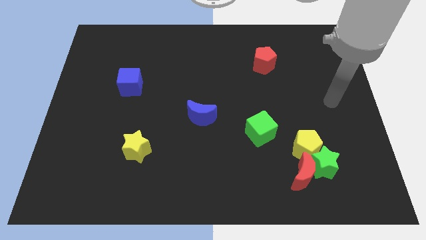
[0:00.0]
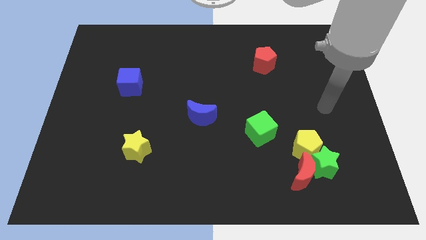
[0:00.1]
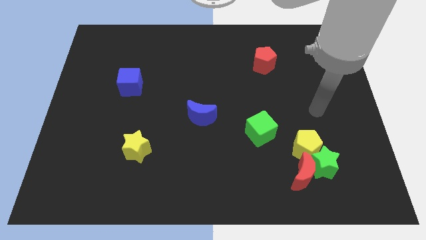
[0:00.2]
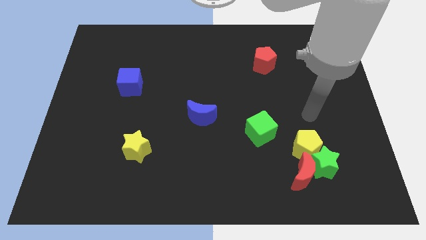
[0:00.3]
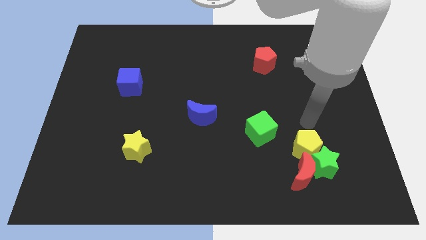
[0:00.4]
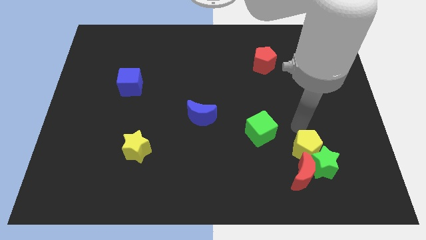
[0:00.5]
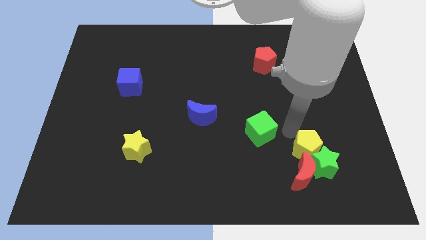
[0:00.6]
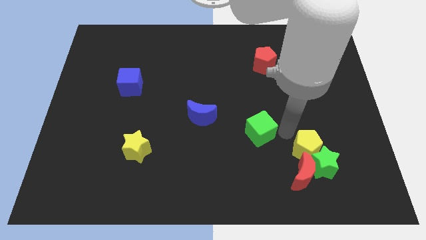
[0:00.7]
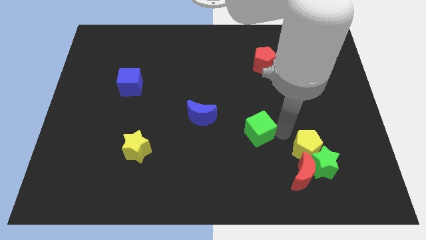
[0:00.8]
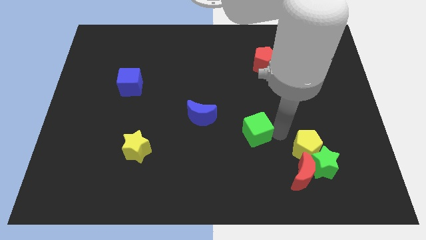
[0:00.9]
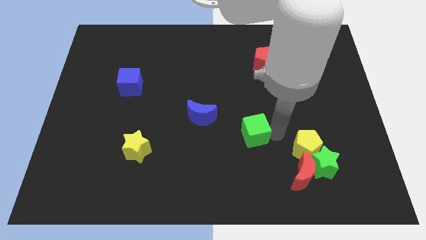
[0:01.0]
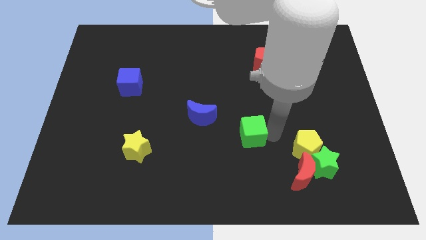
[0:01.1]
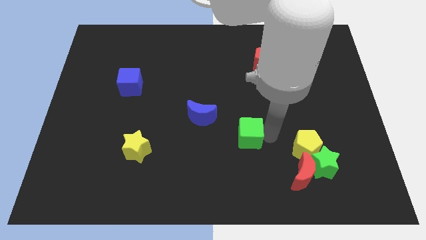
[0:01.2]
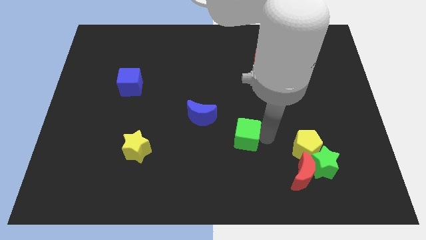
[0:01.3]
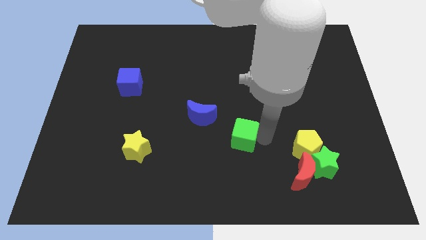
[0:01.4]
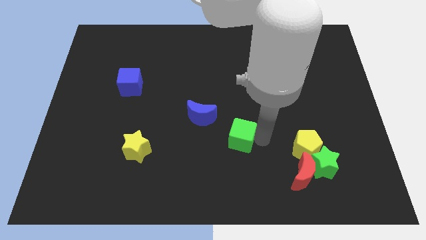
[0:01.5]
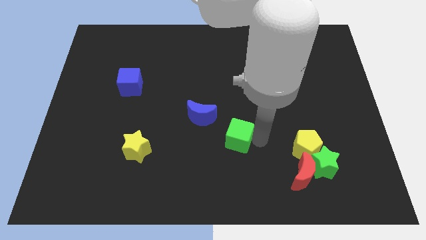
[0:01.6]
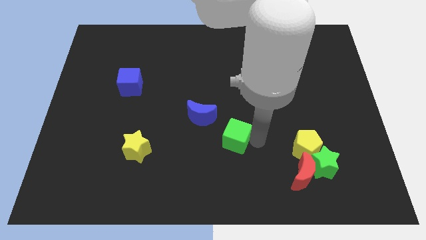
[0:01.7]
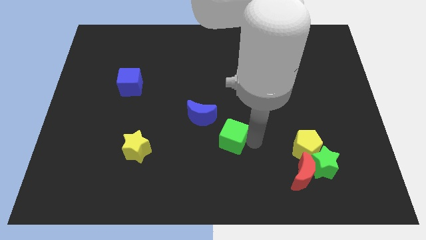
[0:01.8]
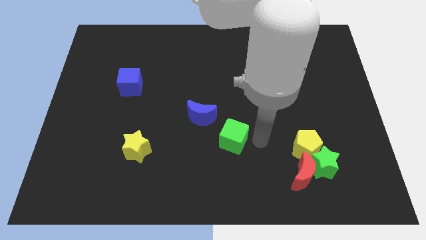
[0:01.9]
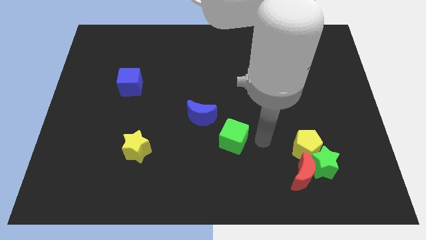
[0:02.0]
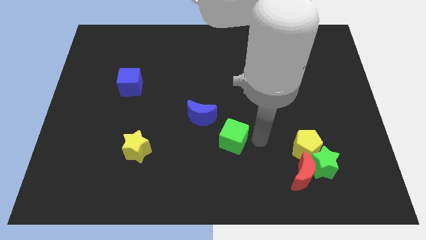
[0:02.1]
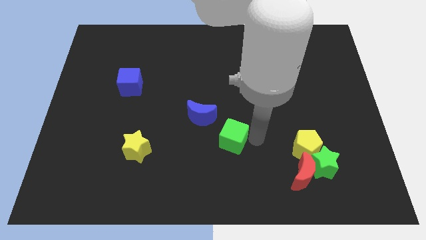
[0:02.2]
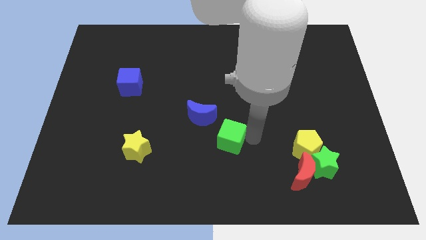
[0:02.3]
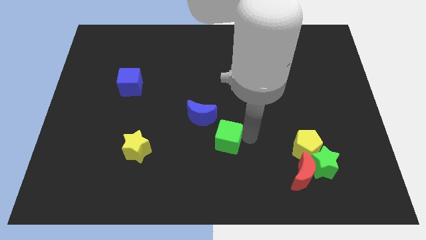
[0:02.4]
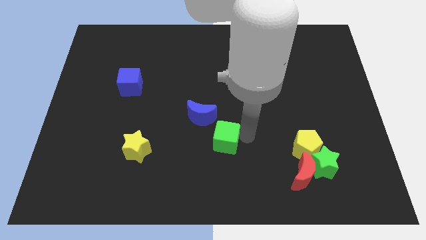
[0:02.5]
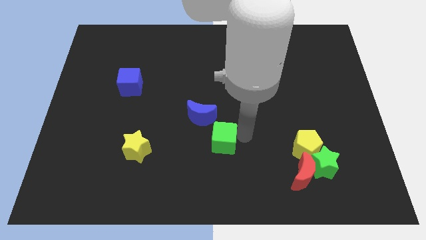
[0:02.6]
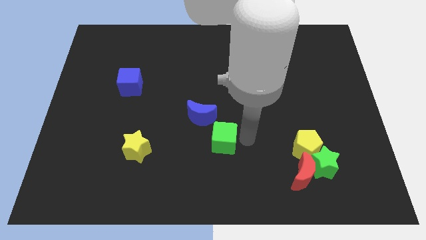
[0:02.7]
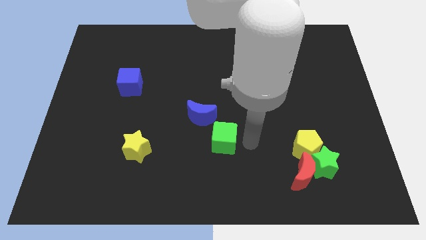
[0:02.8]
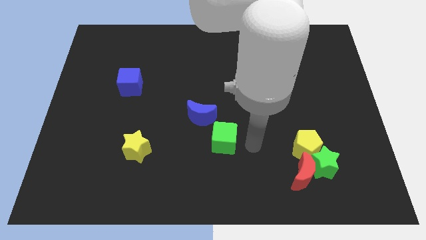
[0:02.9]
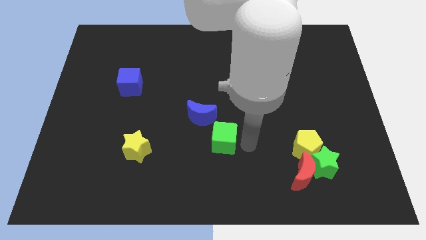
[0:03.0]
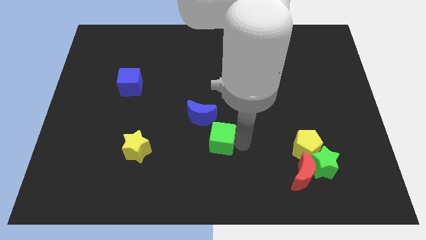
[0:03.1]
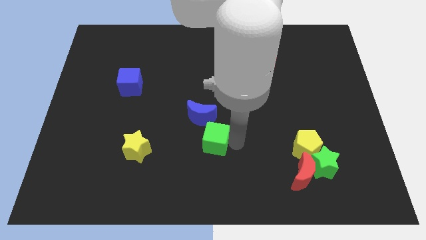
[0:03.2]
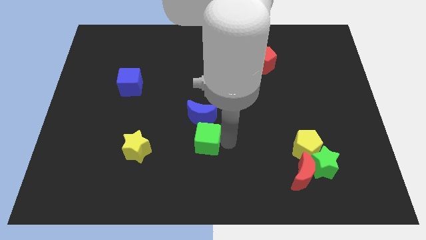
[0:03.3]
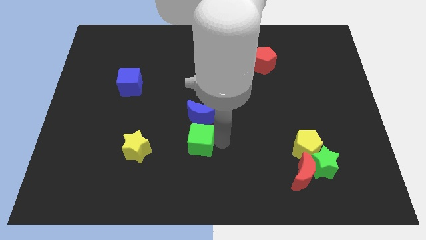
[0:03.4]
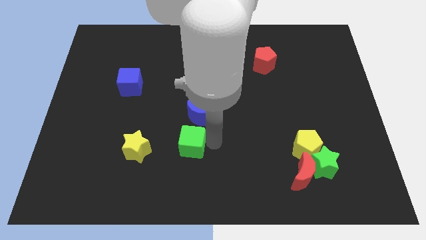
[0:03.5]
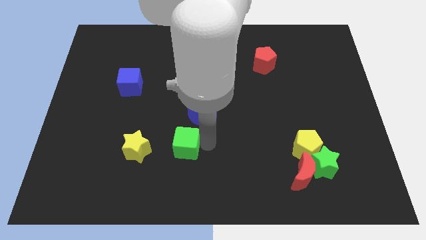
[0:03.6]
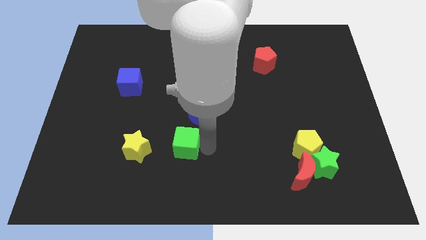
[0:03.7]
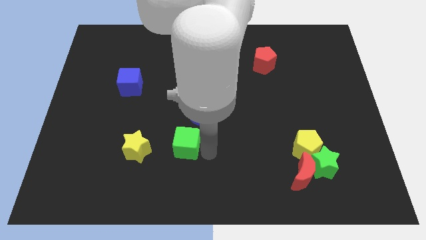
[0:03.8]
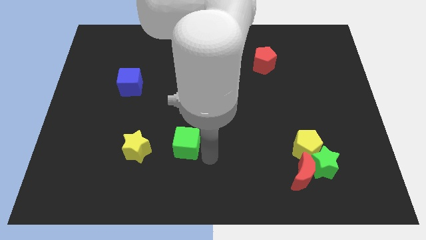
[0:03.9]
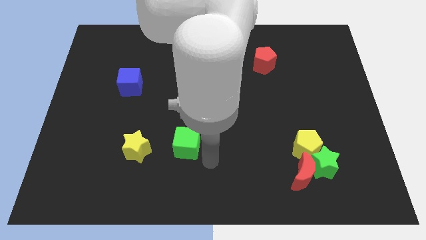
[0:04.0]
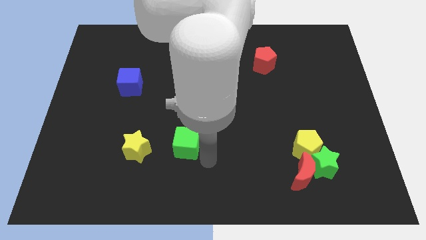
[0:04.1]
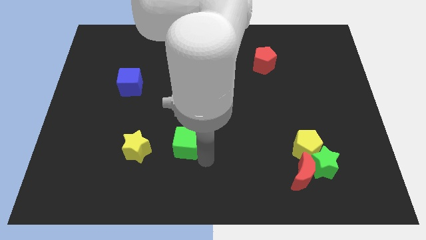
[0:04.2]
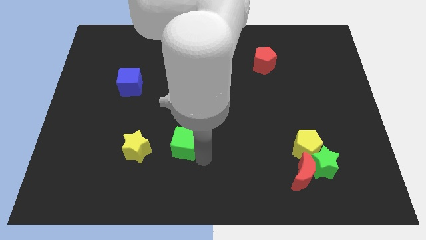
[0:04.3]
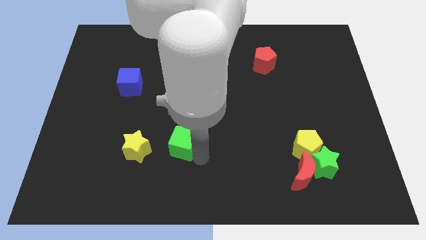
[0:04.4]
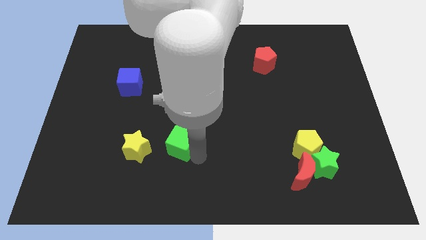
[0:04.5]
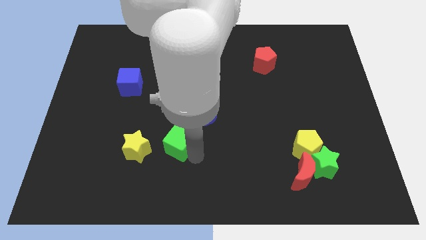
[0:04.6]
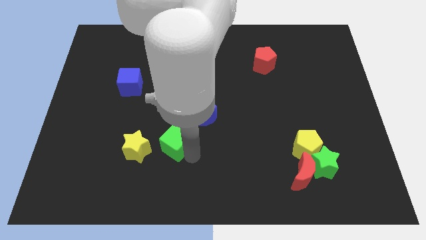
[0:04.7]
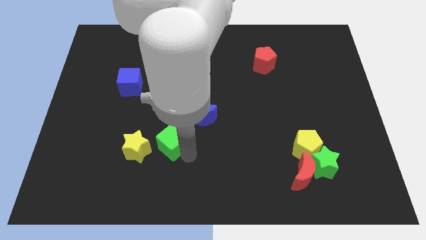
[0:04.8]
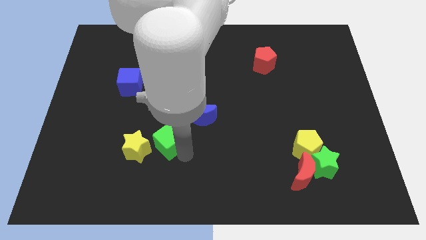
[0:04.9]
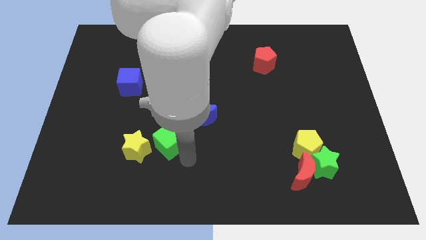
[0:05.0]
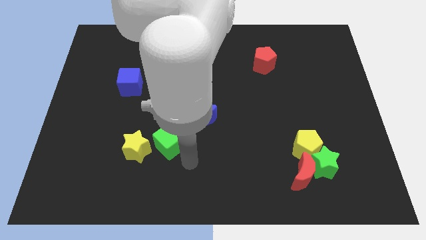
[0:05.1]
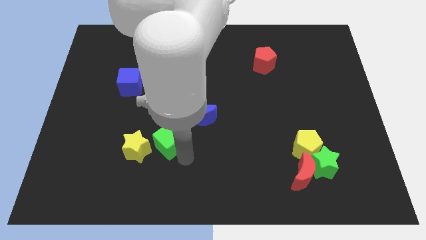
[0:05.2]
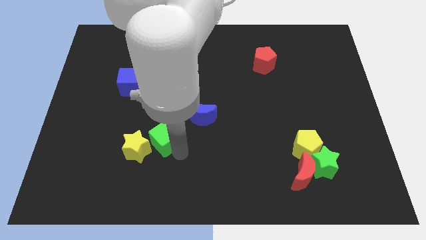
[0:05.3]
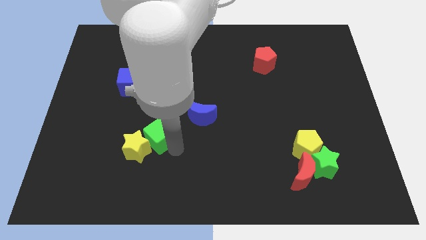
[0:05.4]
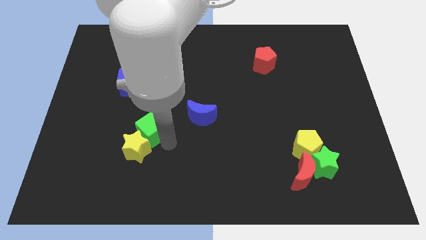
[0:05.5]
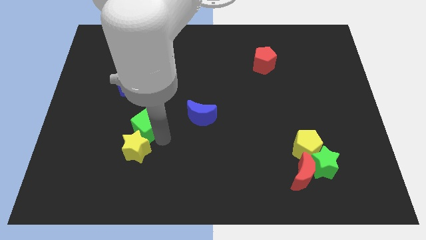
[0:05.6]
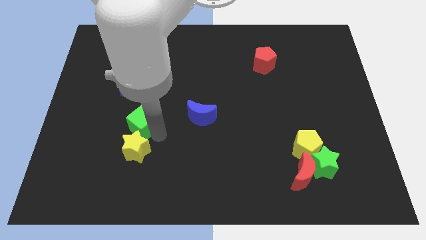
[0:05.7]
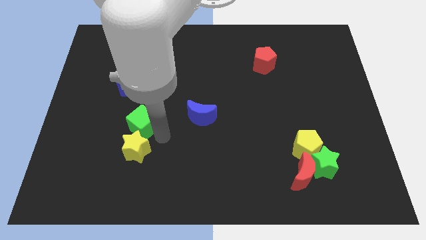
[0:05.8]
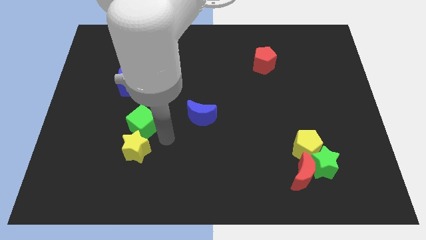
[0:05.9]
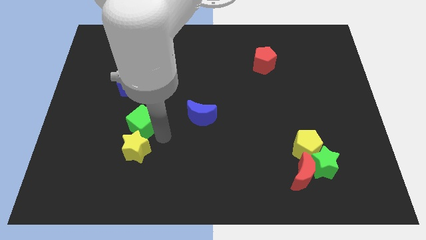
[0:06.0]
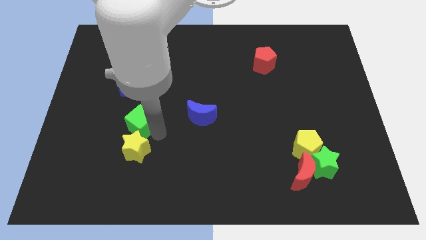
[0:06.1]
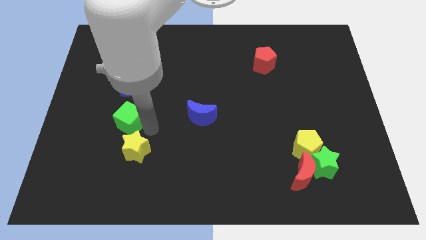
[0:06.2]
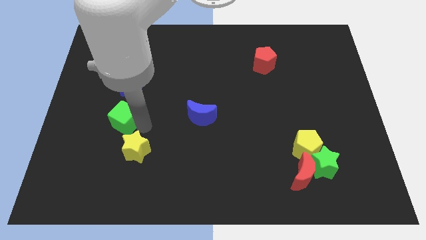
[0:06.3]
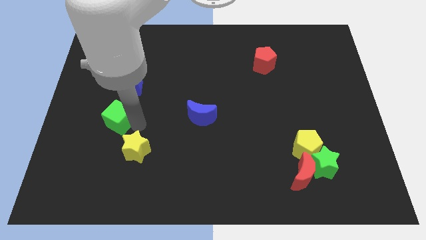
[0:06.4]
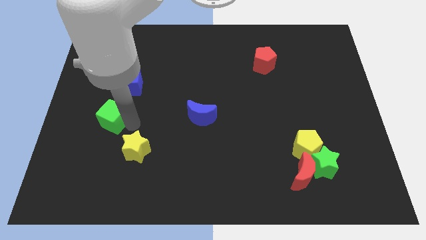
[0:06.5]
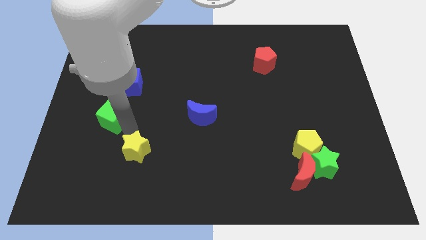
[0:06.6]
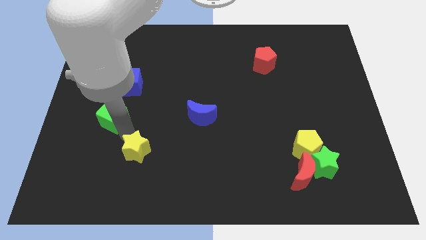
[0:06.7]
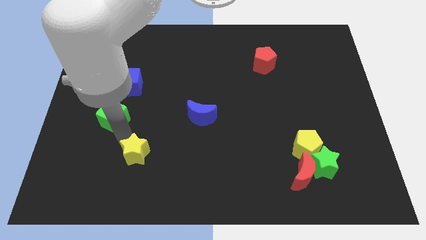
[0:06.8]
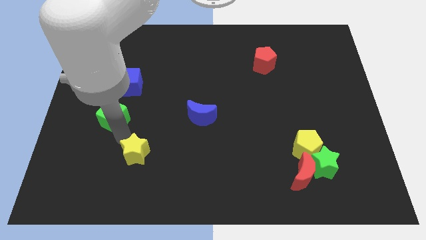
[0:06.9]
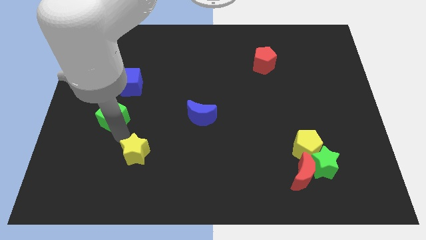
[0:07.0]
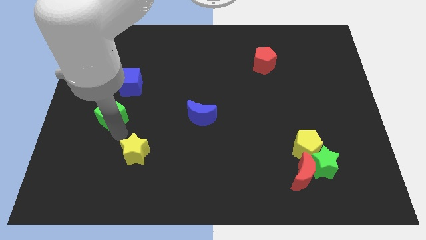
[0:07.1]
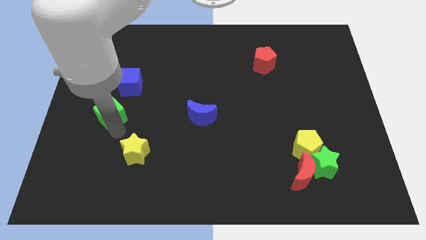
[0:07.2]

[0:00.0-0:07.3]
move the green cube to the bottom left of the blue cube
